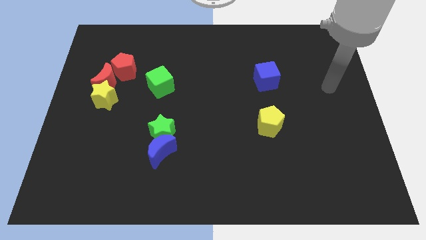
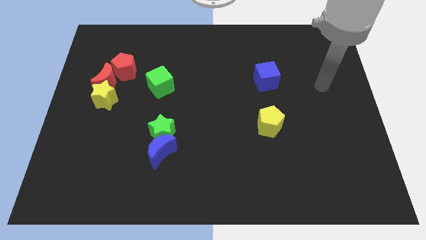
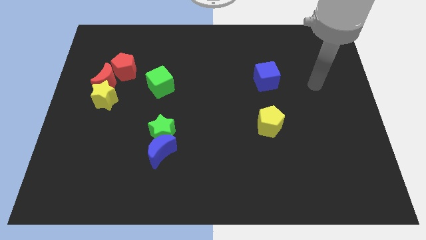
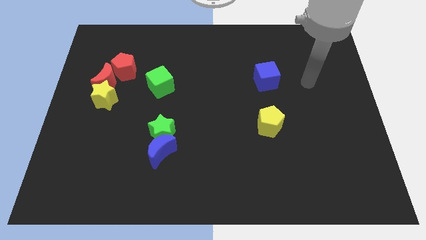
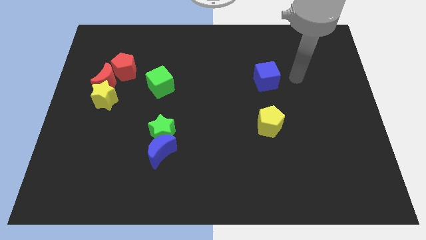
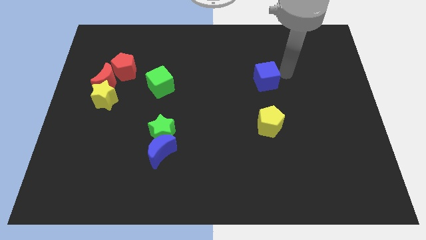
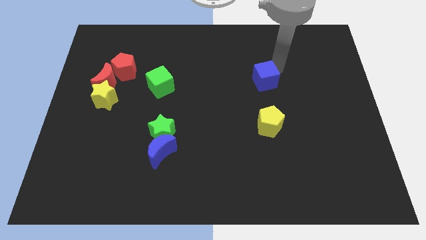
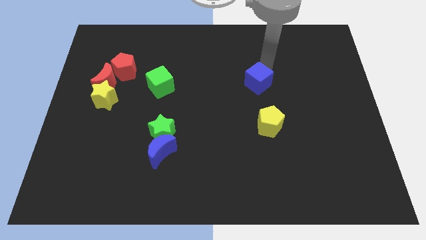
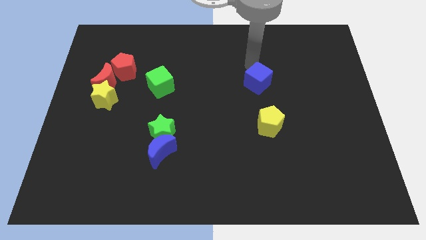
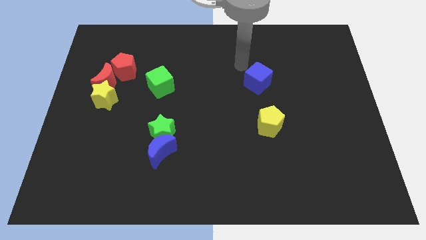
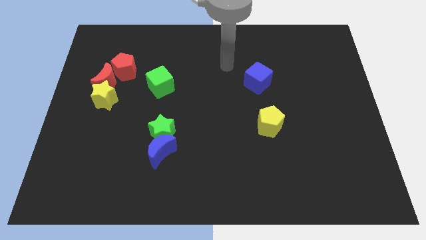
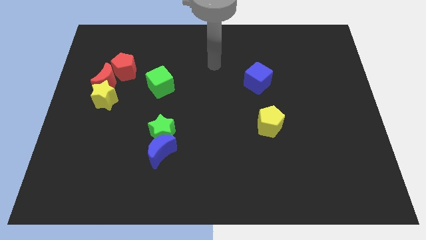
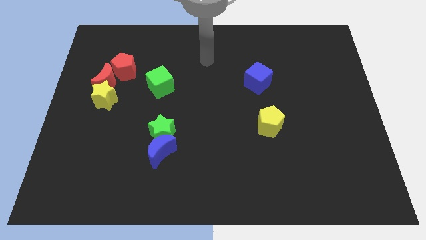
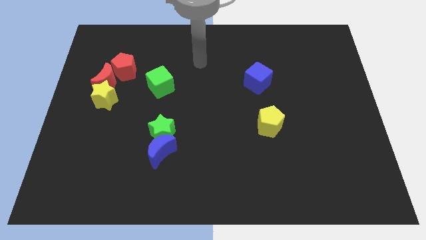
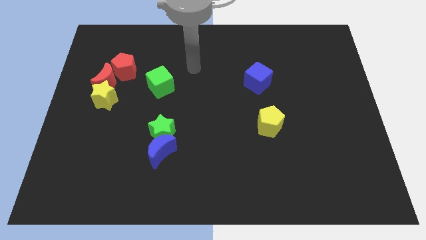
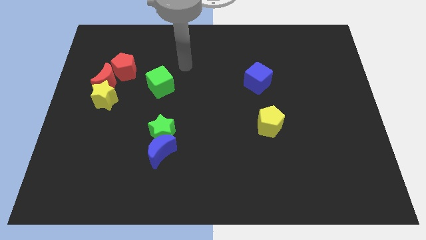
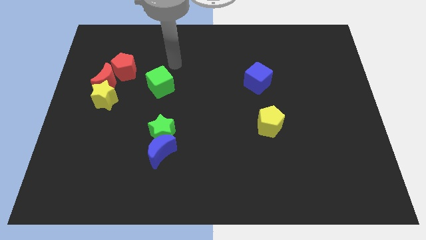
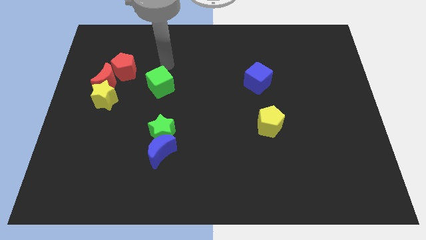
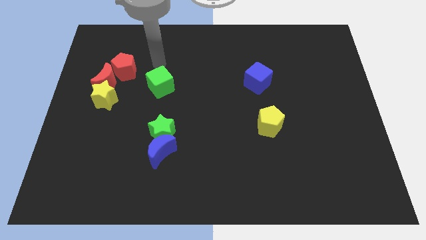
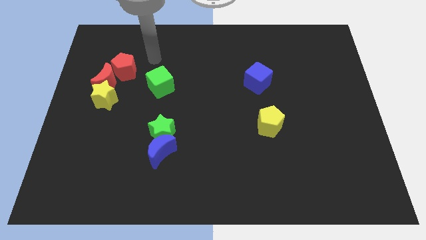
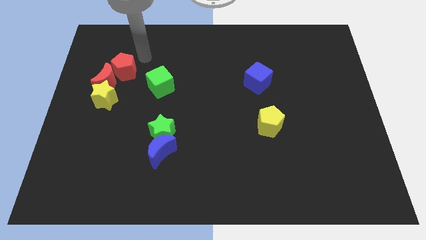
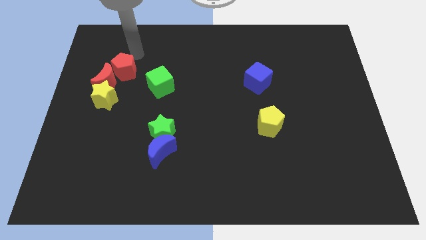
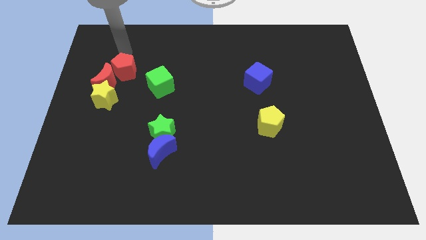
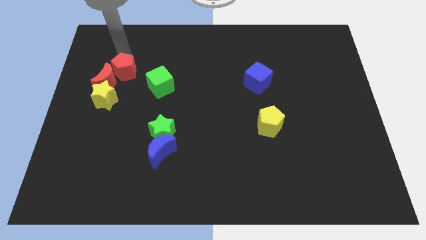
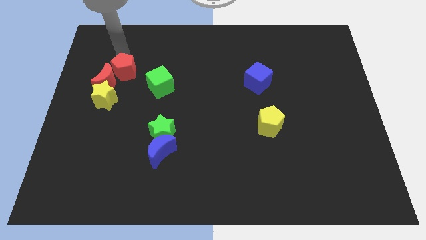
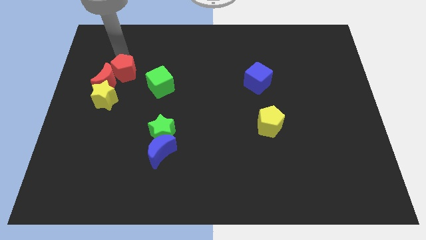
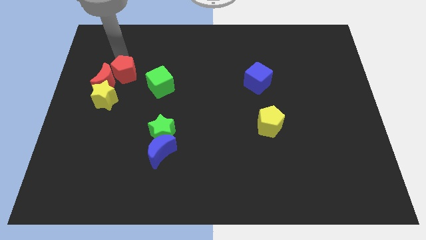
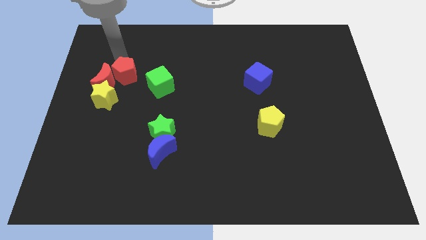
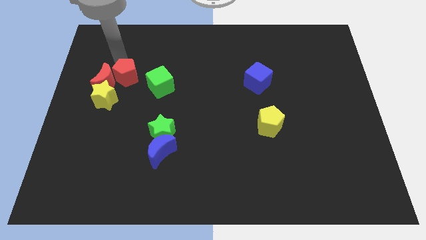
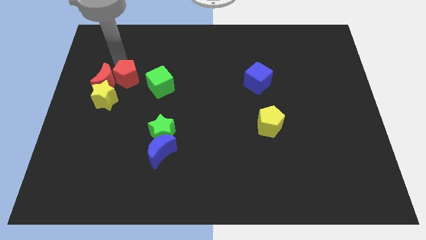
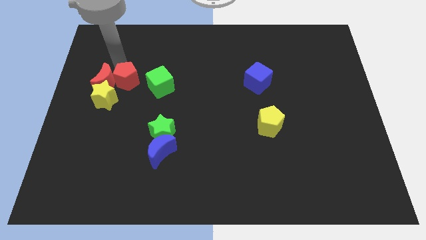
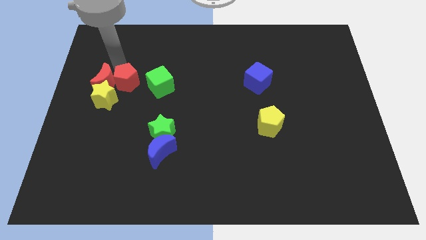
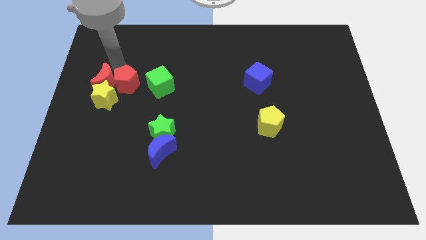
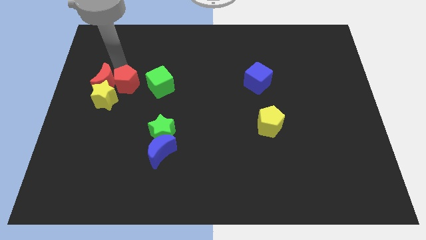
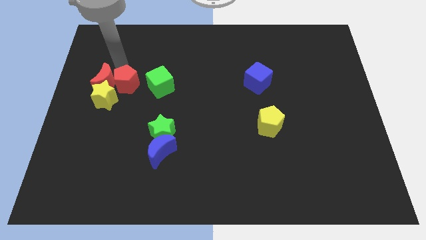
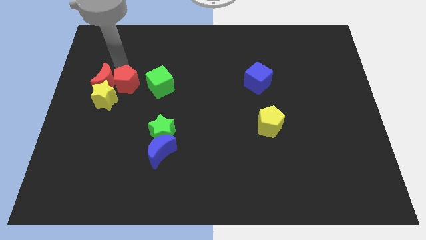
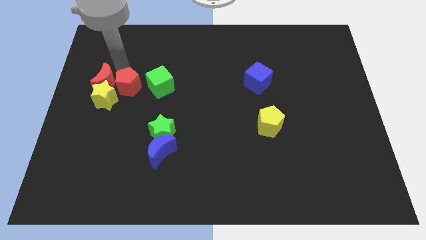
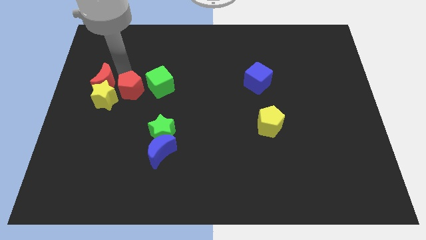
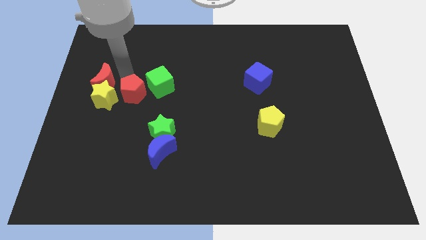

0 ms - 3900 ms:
move the red pentagon a little bit down

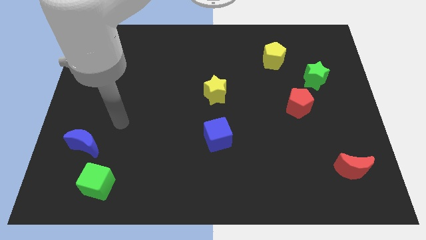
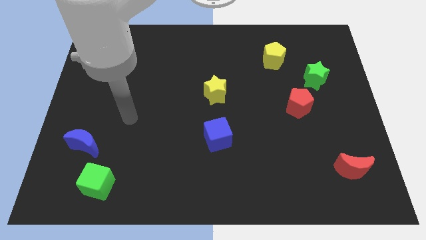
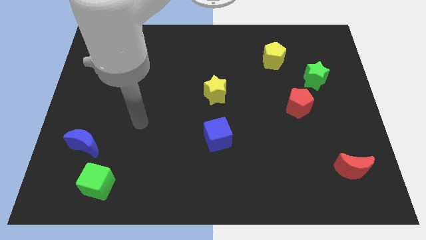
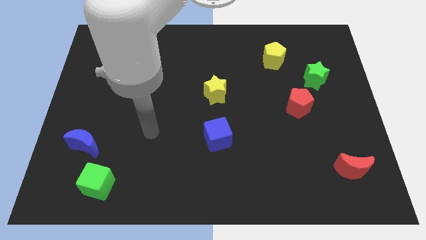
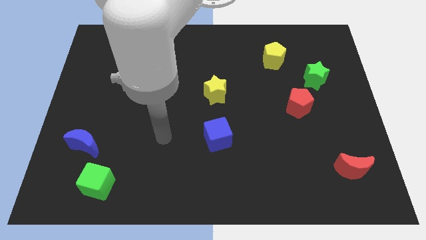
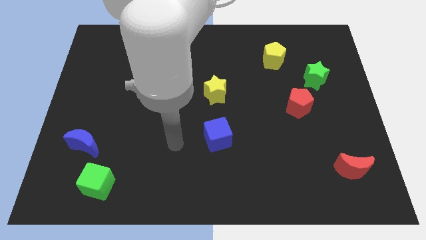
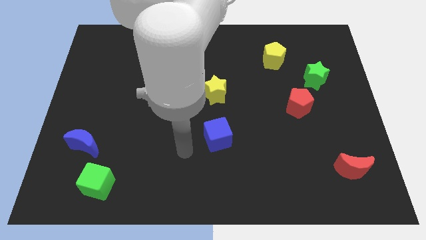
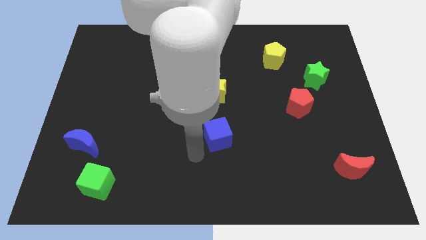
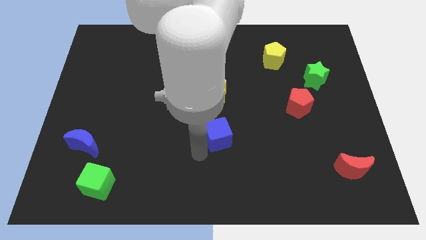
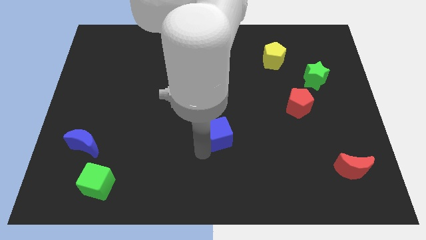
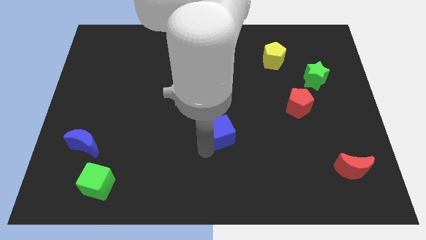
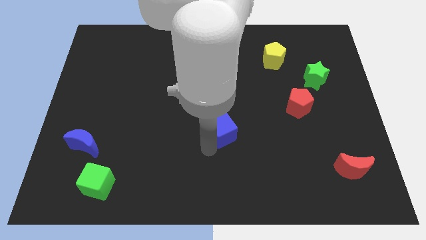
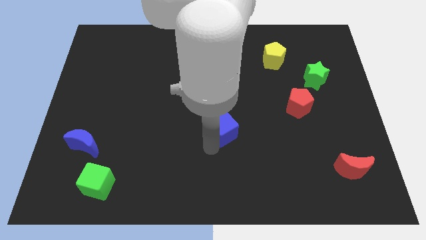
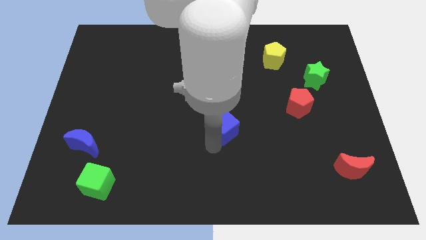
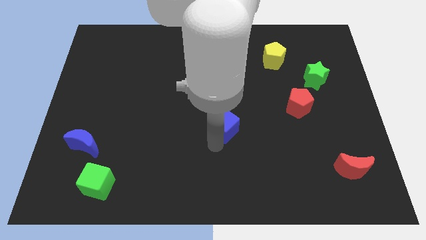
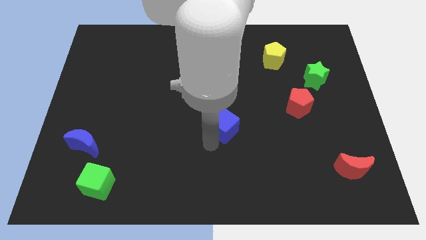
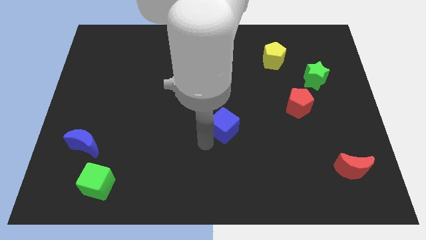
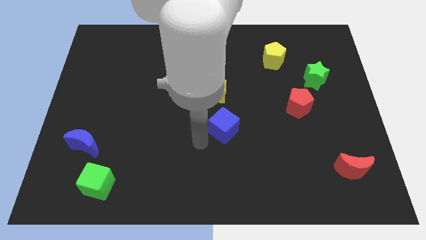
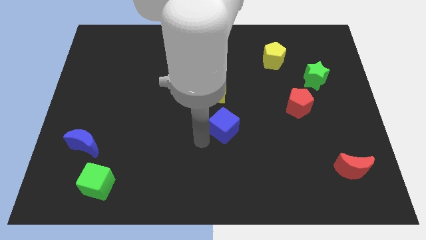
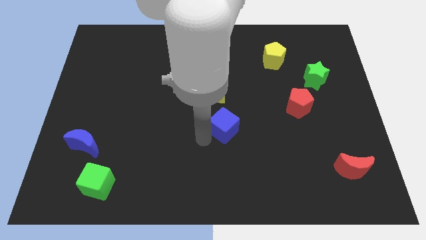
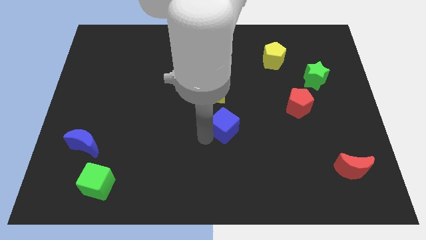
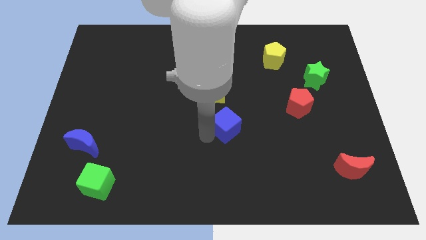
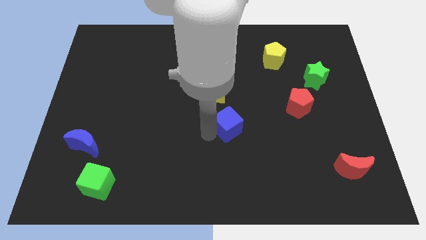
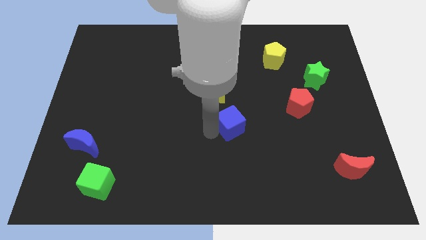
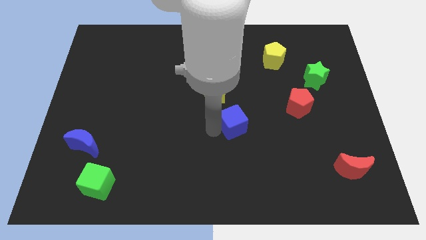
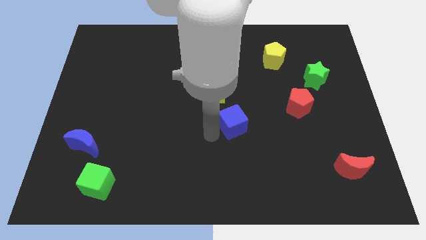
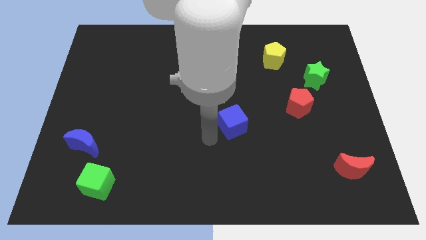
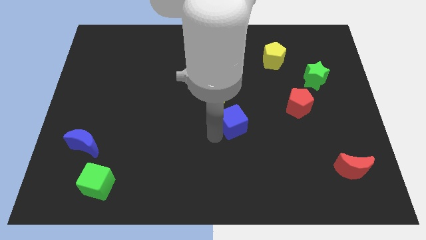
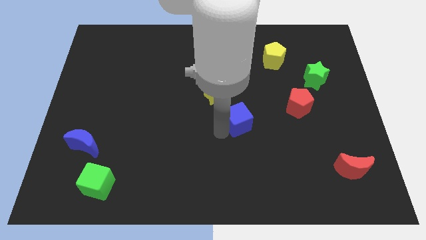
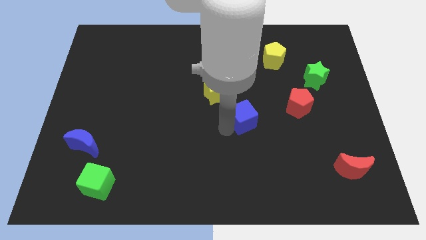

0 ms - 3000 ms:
move the blue cube a little diagonally up and to the right

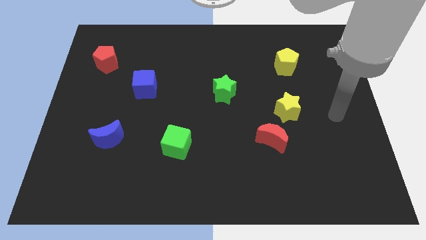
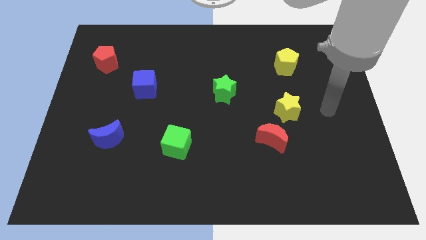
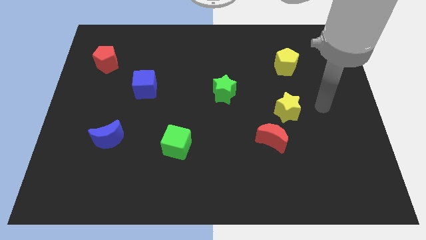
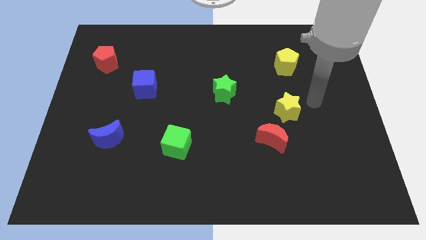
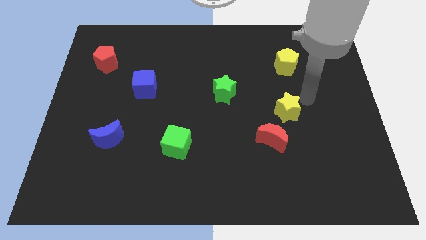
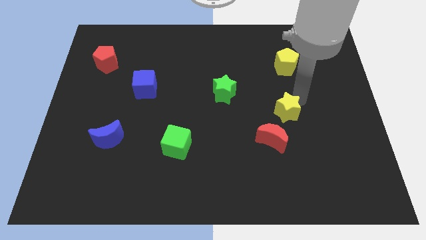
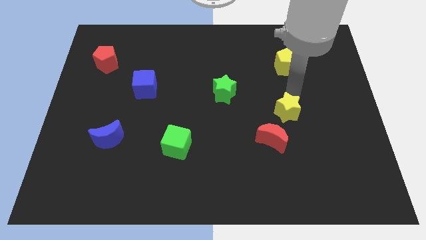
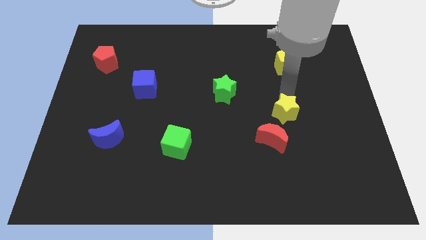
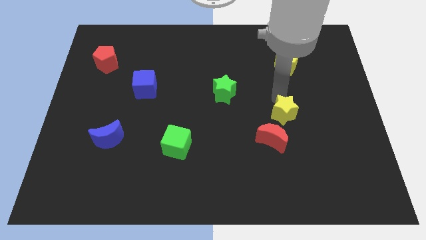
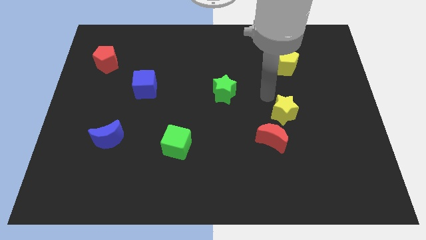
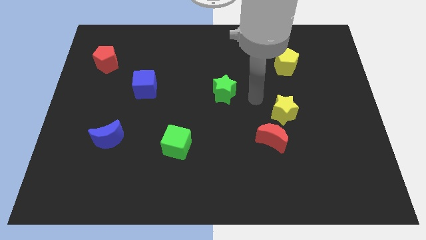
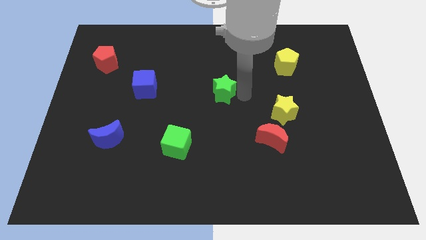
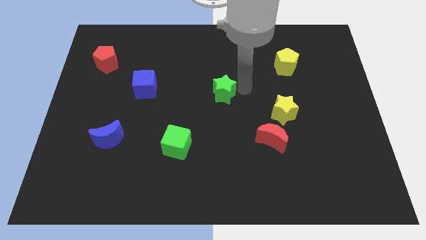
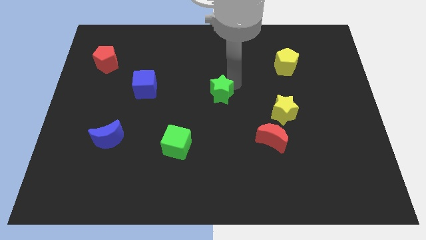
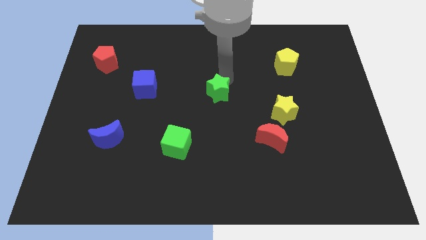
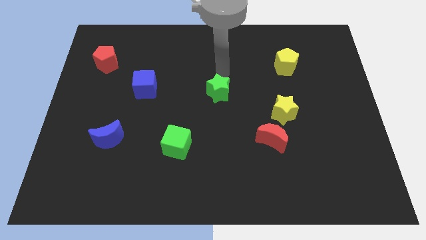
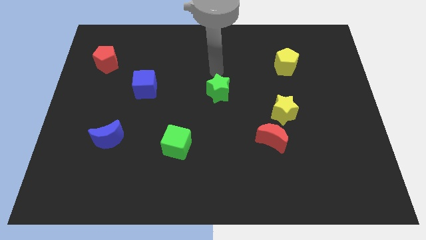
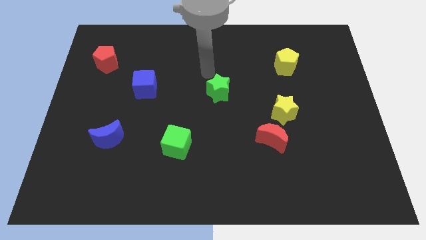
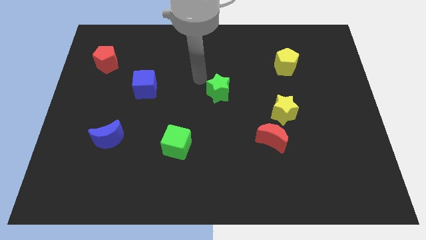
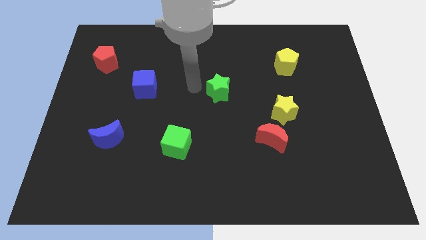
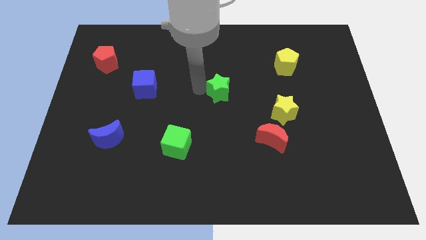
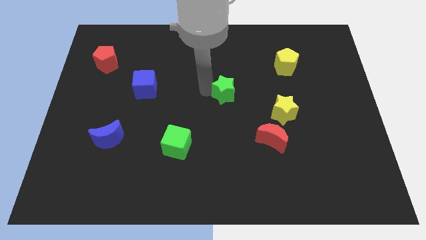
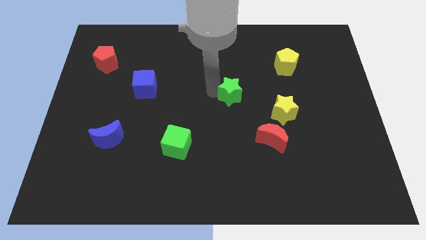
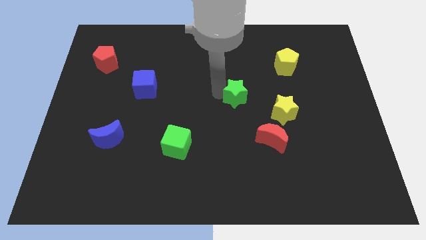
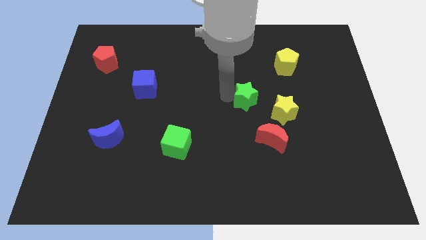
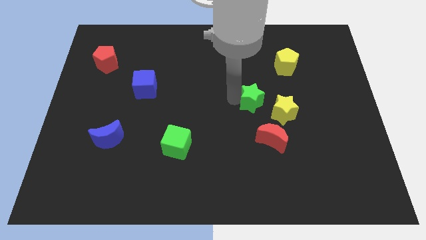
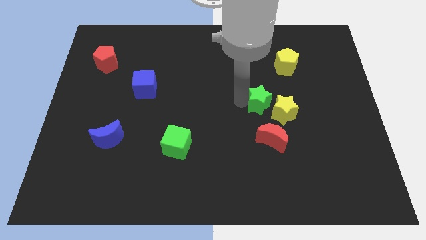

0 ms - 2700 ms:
move the green star slightly to the right
